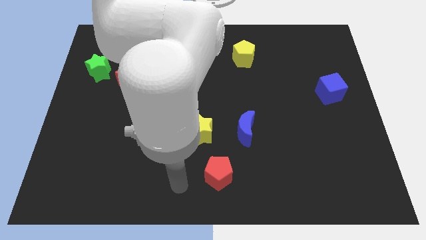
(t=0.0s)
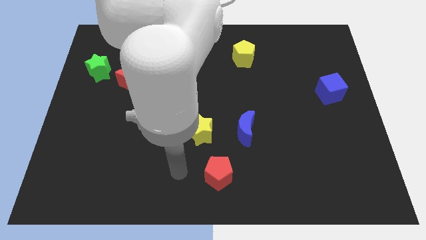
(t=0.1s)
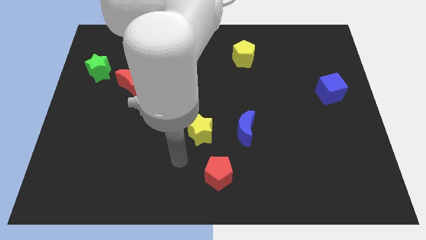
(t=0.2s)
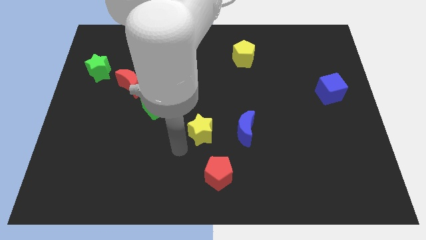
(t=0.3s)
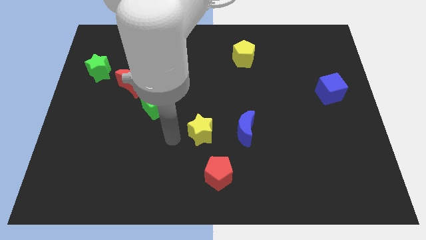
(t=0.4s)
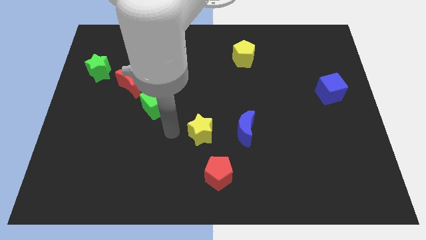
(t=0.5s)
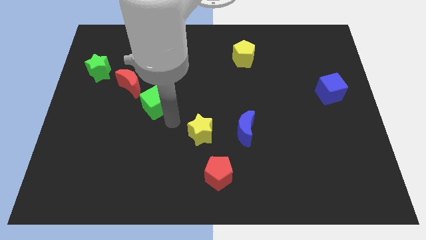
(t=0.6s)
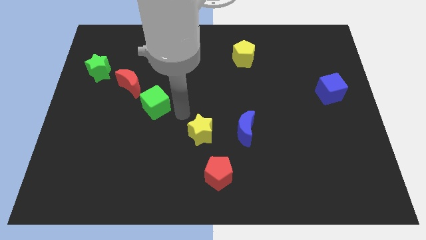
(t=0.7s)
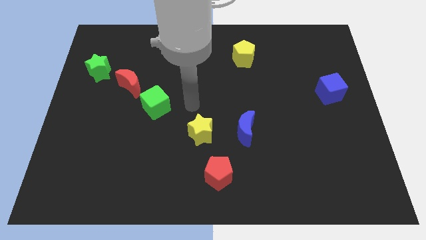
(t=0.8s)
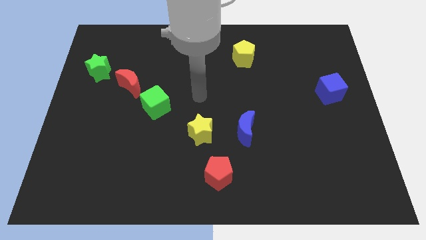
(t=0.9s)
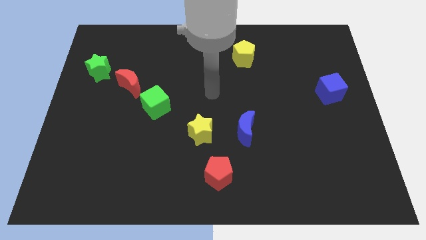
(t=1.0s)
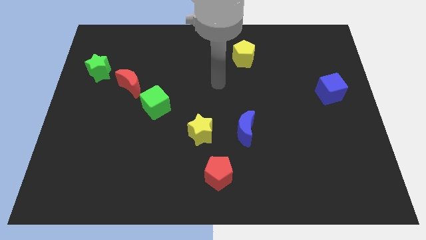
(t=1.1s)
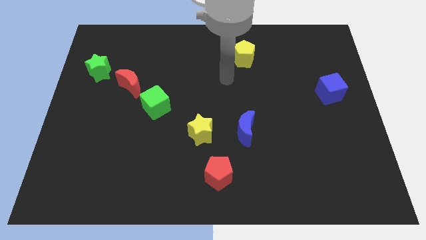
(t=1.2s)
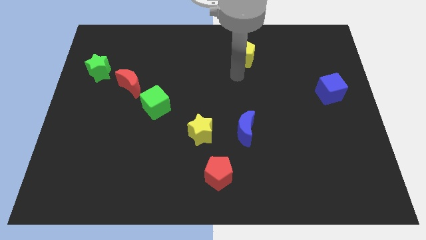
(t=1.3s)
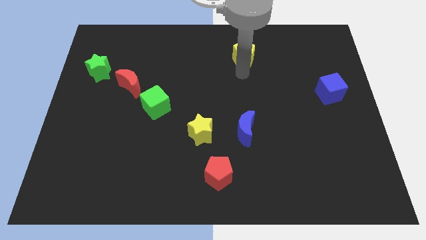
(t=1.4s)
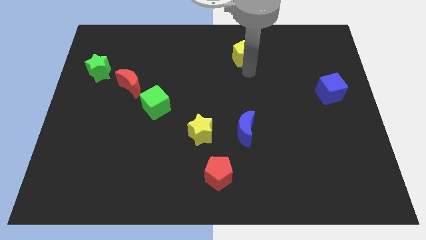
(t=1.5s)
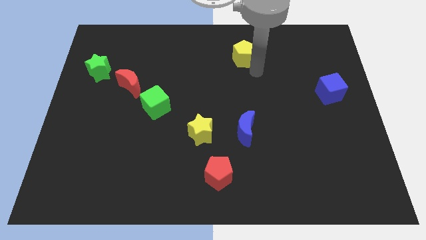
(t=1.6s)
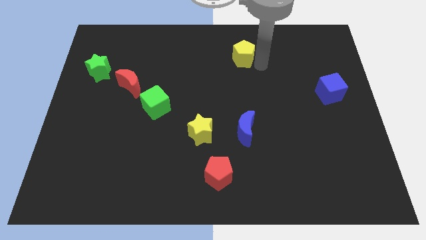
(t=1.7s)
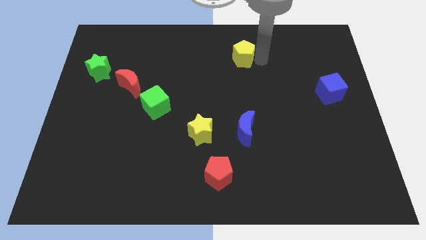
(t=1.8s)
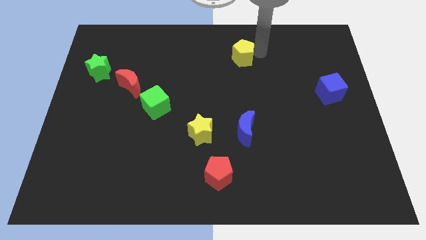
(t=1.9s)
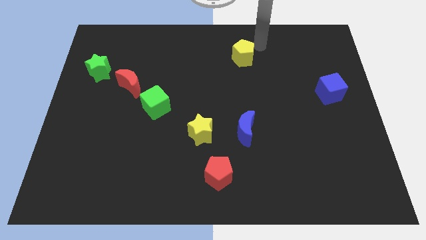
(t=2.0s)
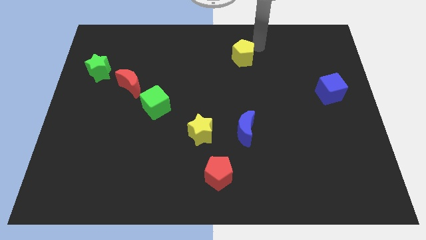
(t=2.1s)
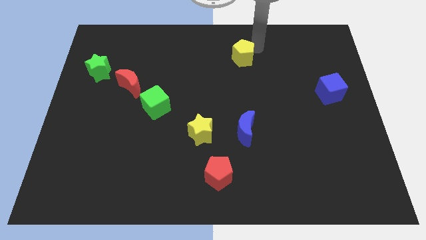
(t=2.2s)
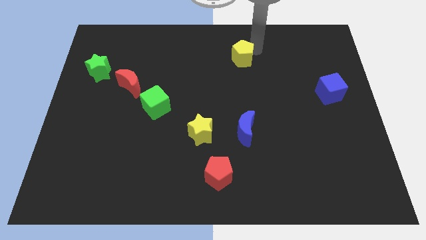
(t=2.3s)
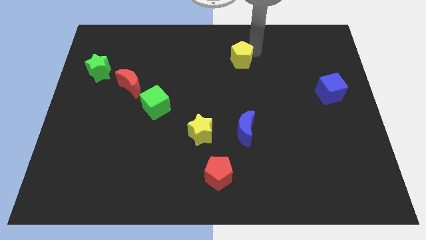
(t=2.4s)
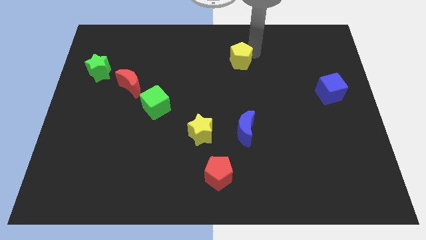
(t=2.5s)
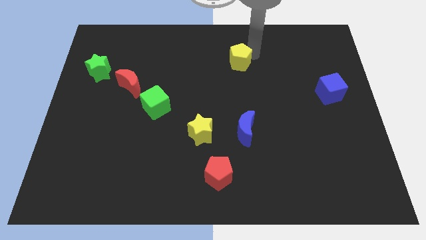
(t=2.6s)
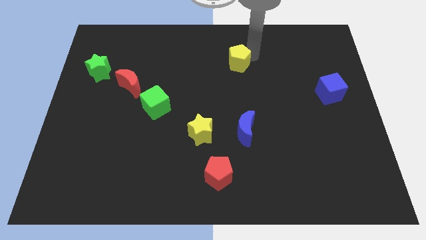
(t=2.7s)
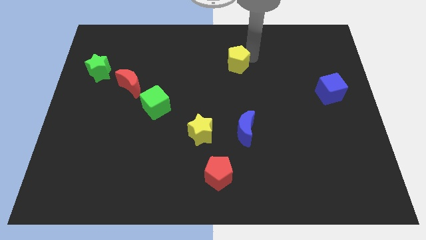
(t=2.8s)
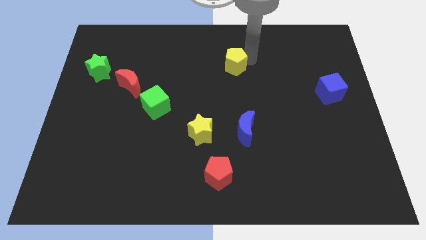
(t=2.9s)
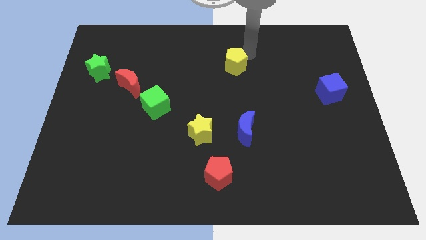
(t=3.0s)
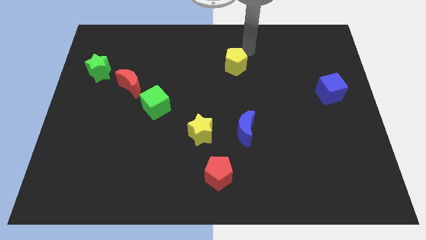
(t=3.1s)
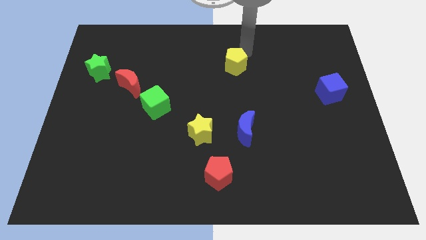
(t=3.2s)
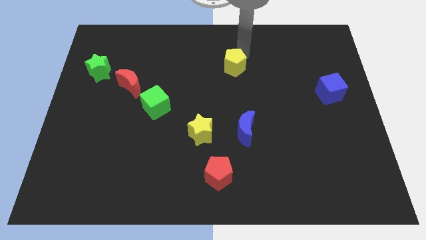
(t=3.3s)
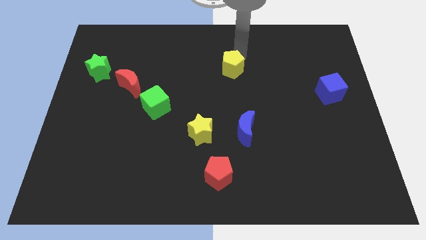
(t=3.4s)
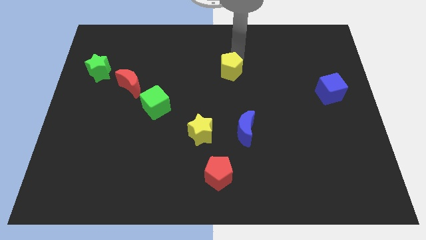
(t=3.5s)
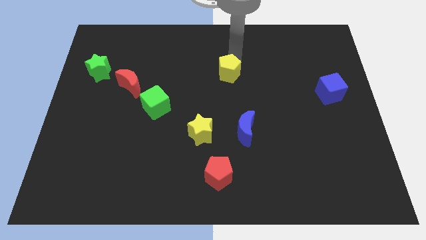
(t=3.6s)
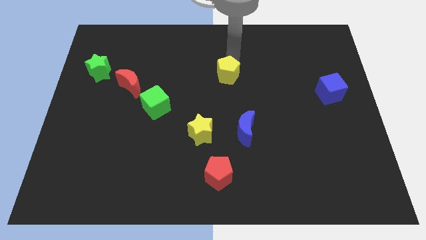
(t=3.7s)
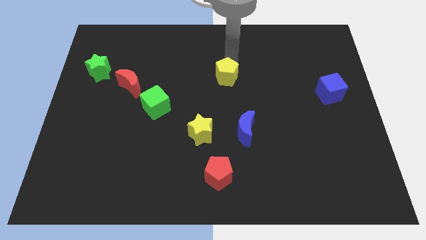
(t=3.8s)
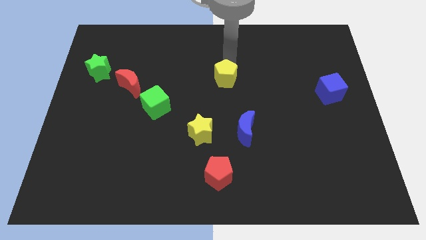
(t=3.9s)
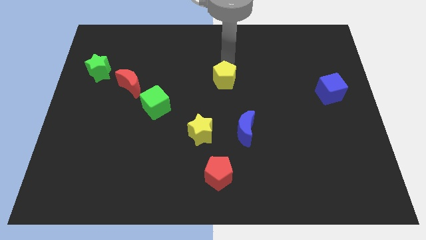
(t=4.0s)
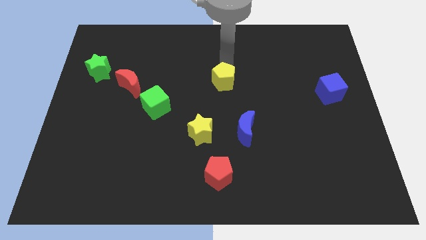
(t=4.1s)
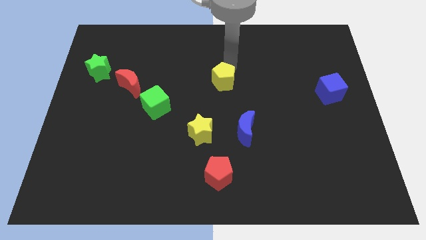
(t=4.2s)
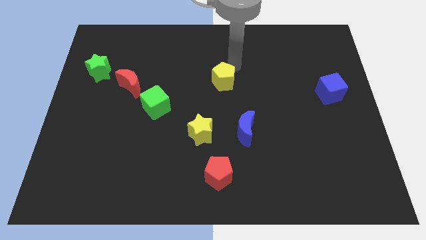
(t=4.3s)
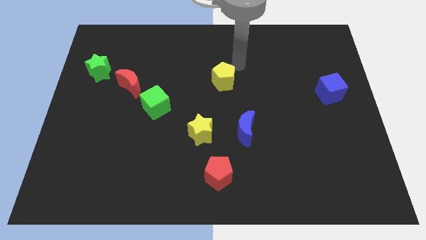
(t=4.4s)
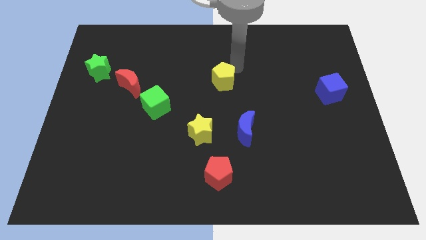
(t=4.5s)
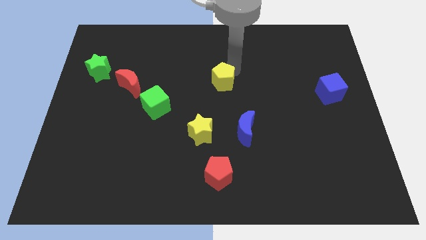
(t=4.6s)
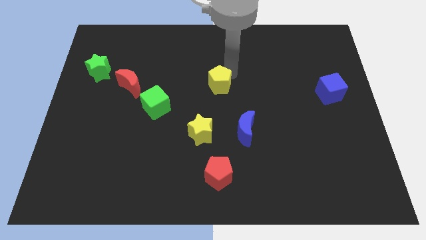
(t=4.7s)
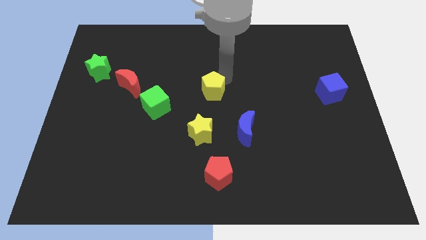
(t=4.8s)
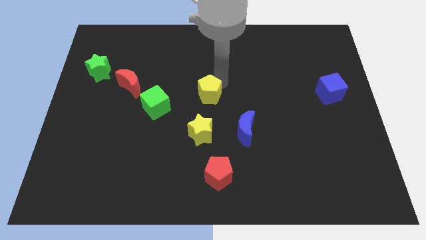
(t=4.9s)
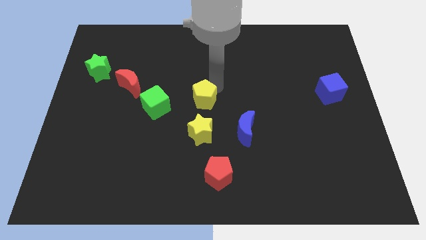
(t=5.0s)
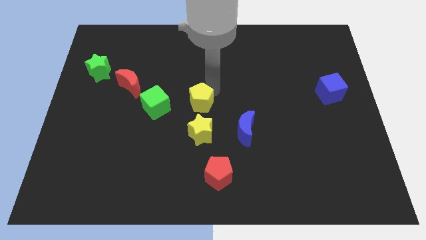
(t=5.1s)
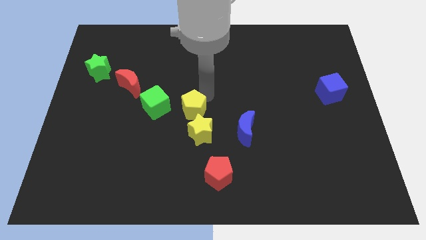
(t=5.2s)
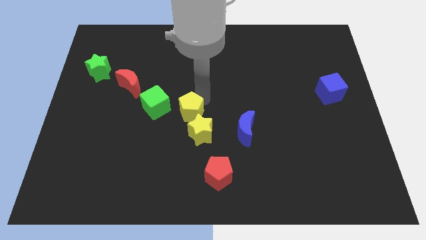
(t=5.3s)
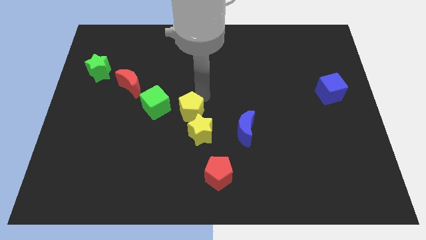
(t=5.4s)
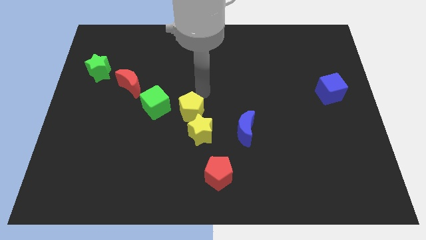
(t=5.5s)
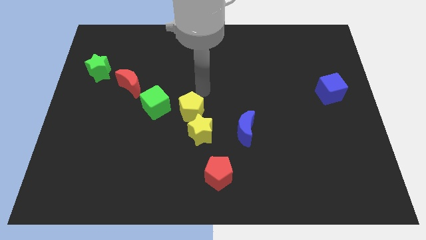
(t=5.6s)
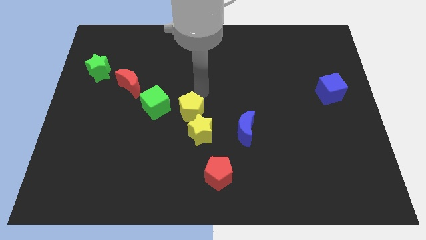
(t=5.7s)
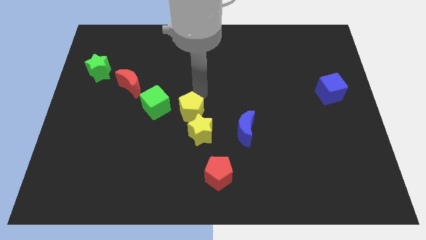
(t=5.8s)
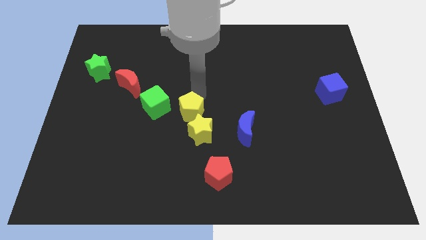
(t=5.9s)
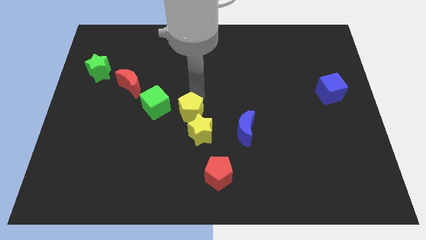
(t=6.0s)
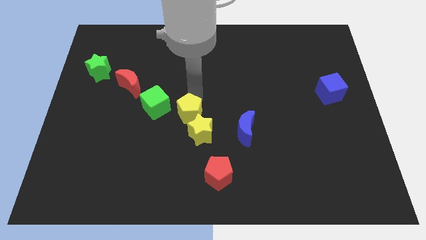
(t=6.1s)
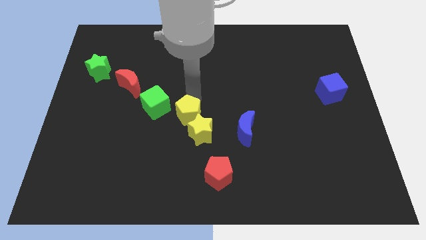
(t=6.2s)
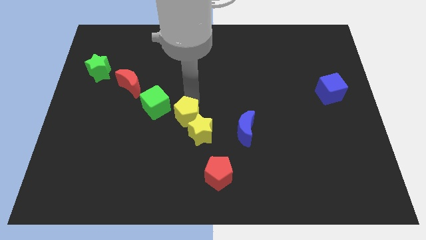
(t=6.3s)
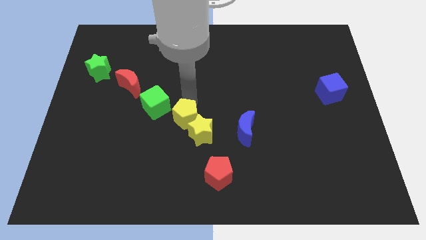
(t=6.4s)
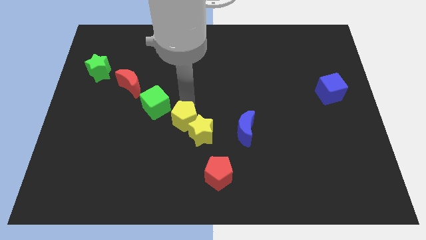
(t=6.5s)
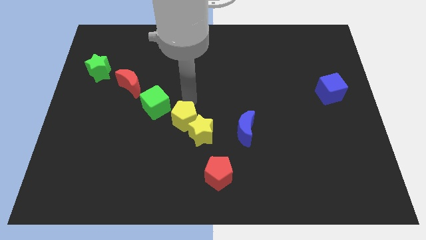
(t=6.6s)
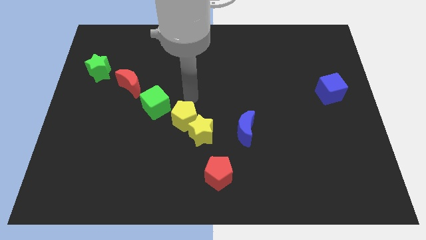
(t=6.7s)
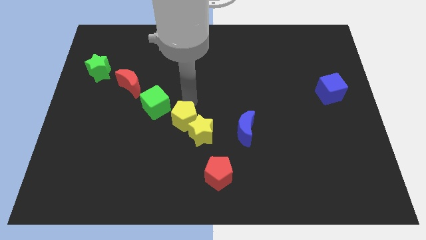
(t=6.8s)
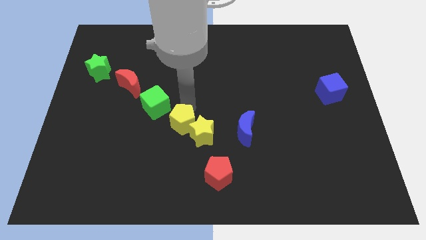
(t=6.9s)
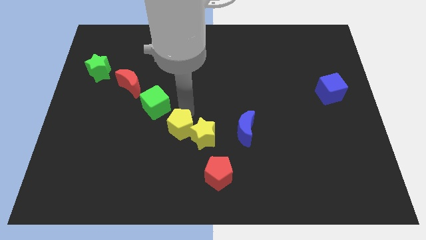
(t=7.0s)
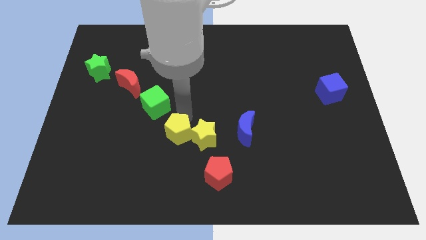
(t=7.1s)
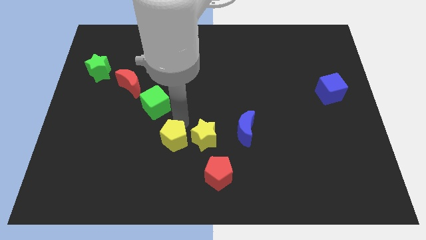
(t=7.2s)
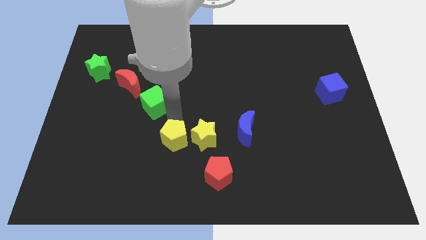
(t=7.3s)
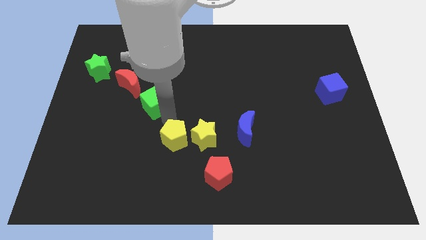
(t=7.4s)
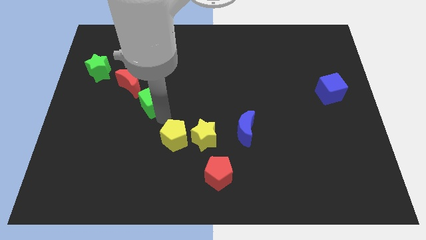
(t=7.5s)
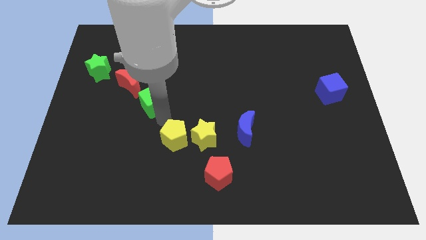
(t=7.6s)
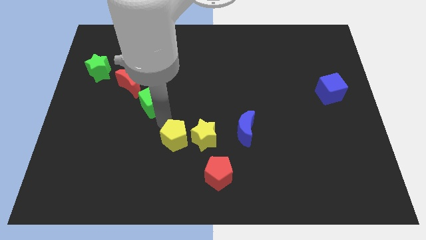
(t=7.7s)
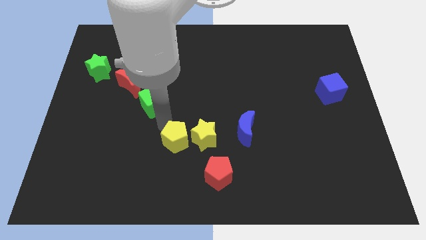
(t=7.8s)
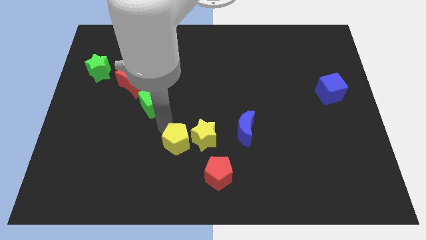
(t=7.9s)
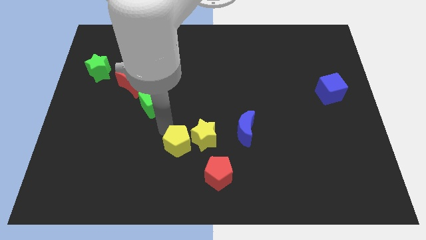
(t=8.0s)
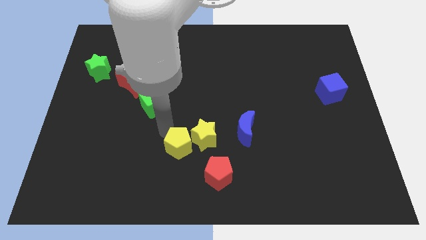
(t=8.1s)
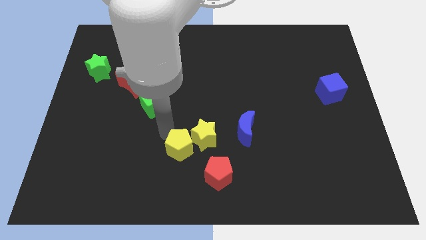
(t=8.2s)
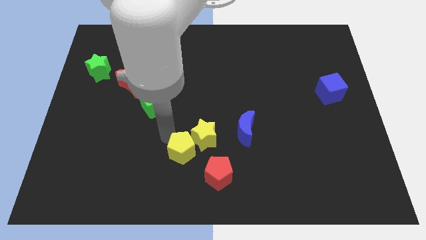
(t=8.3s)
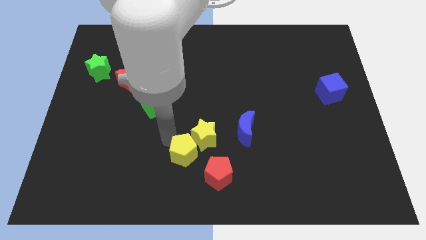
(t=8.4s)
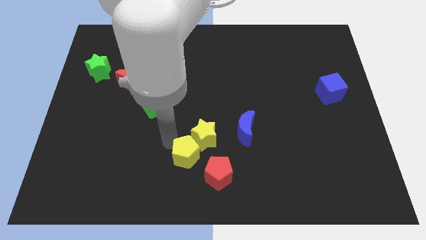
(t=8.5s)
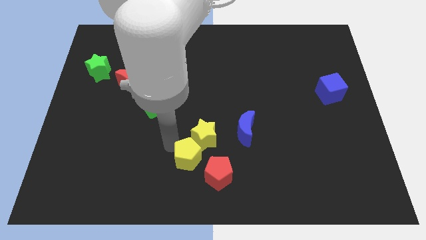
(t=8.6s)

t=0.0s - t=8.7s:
move the yellow pentagon to the bottom side
